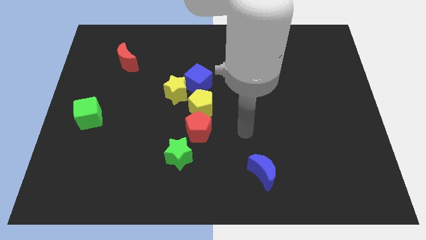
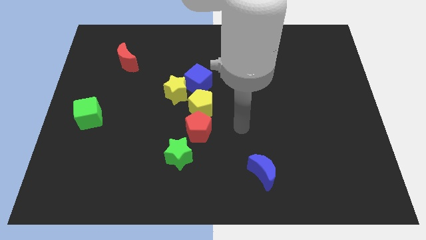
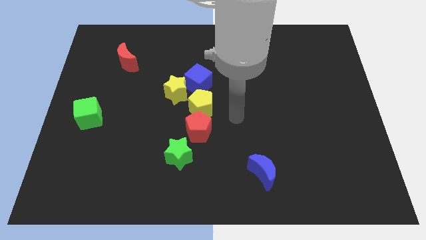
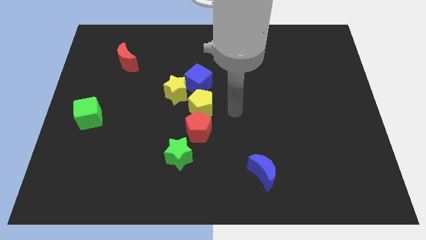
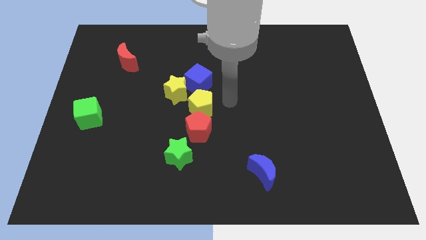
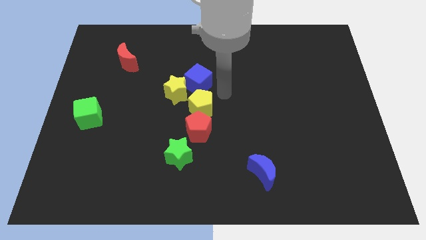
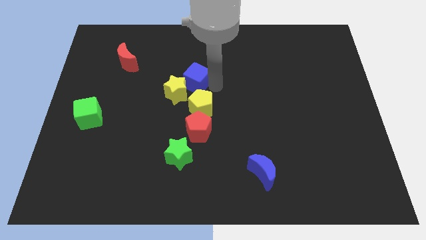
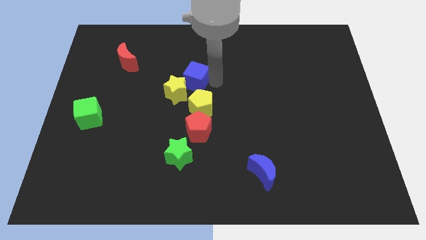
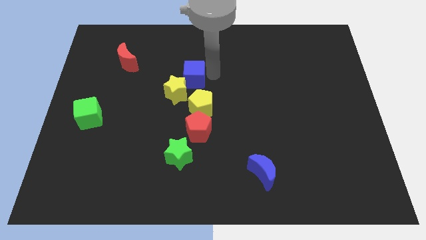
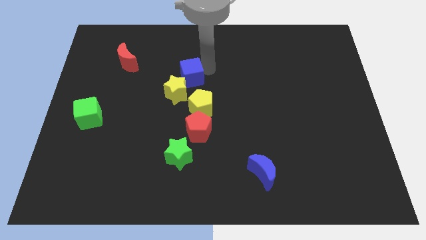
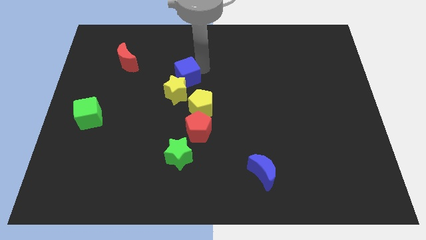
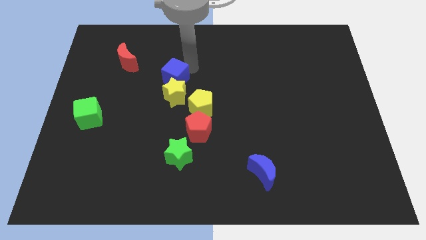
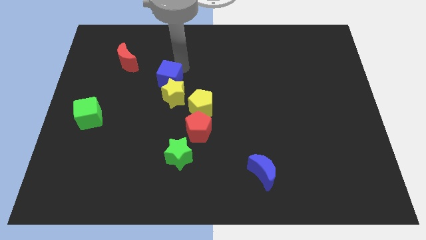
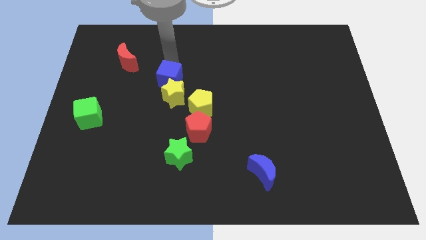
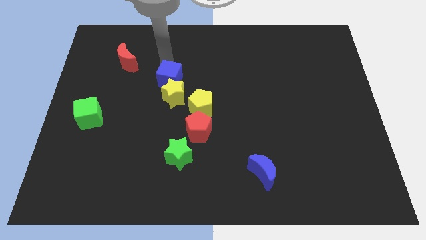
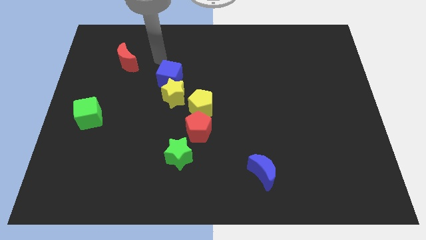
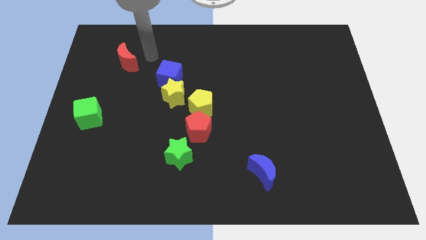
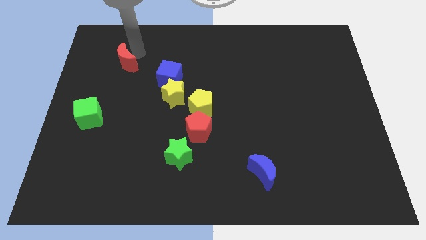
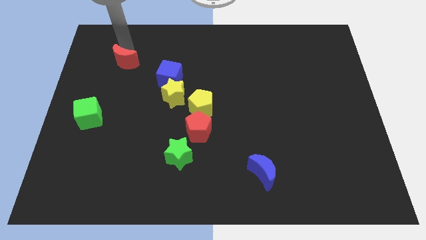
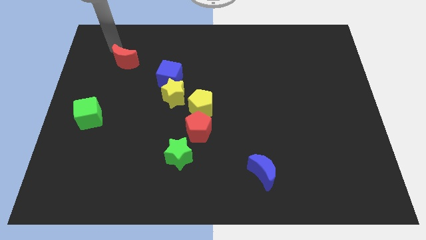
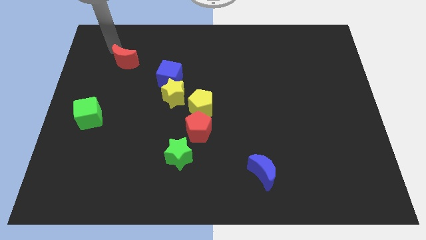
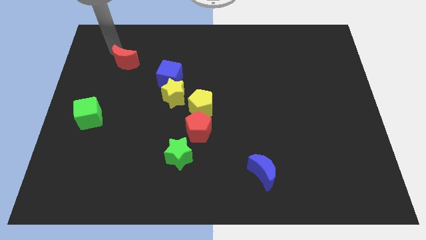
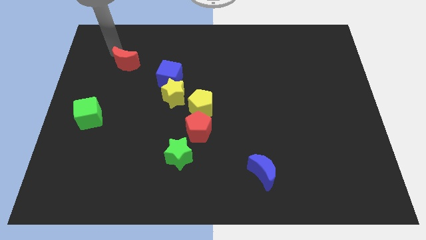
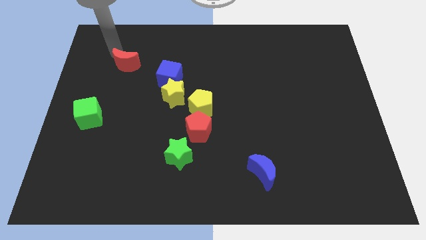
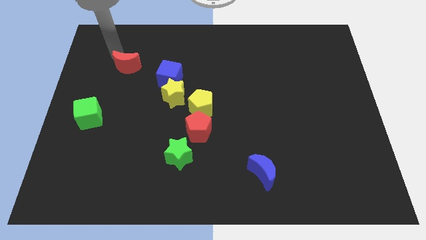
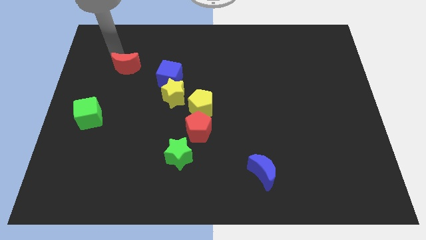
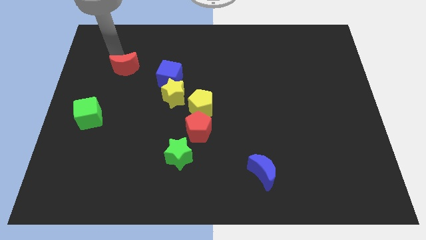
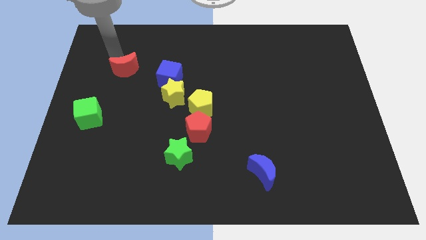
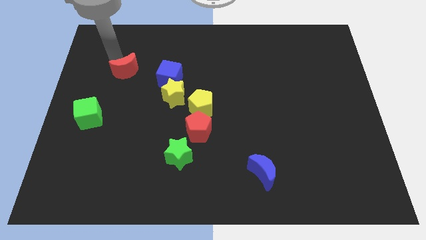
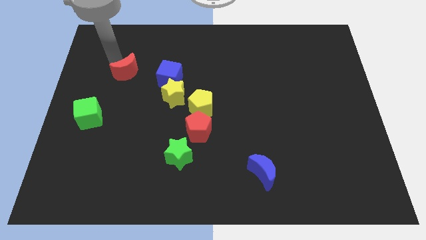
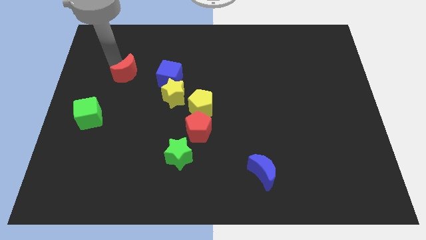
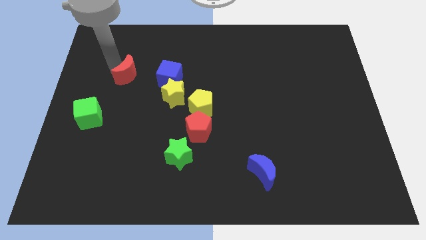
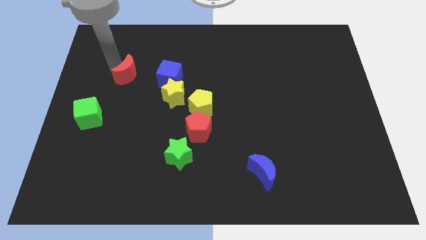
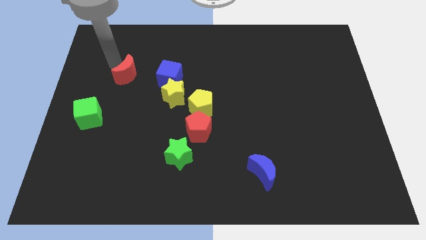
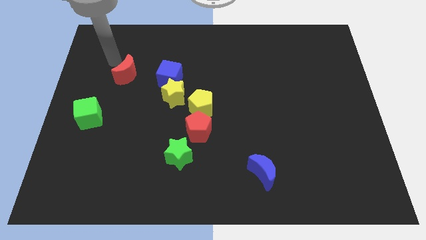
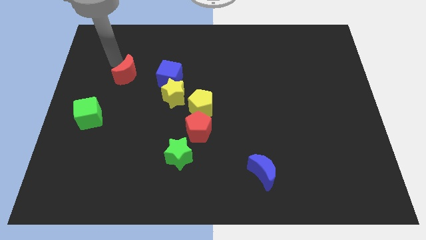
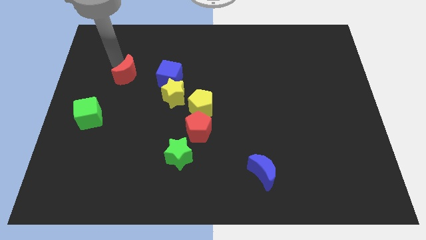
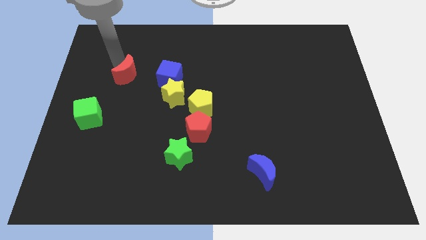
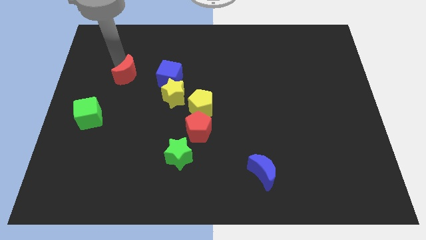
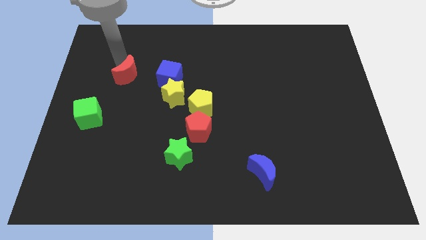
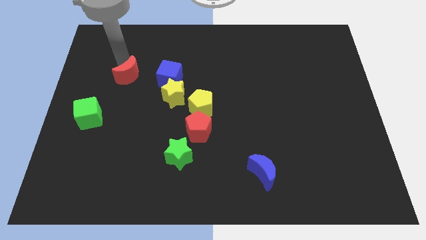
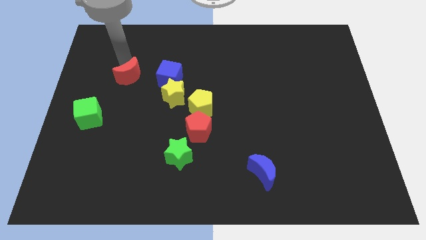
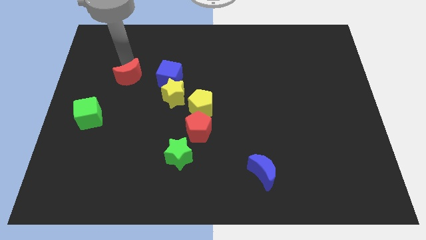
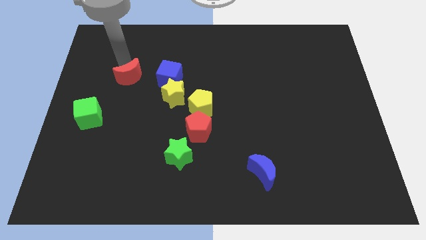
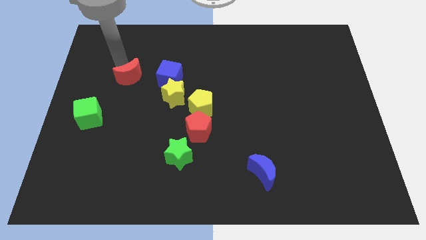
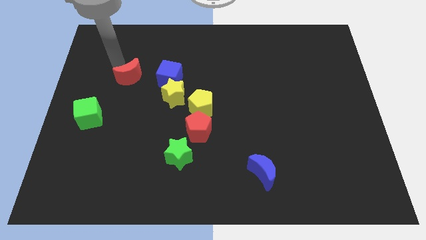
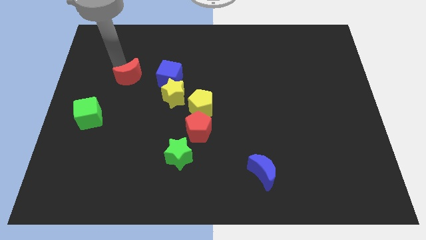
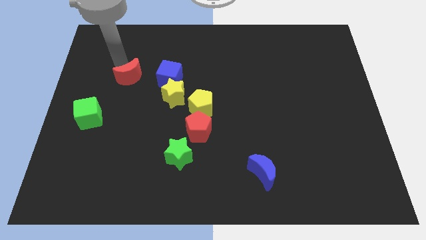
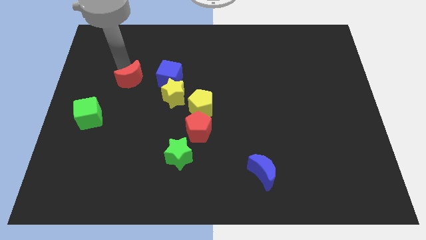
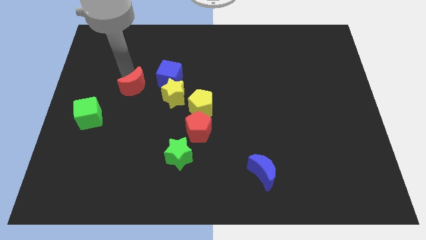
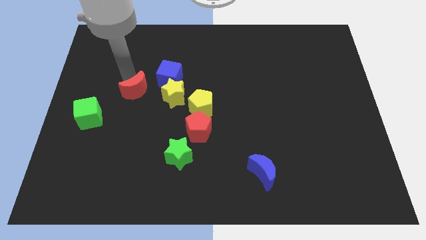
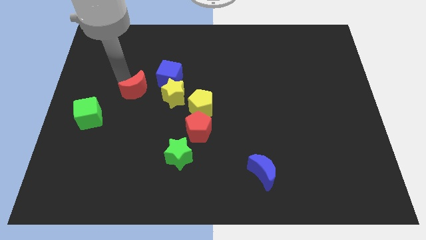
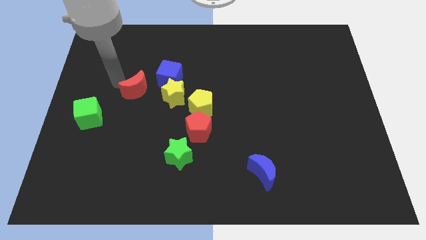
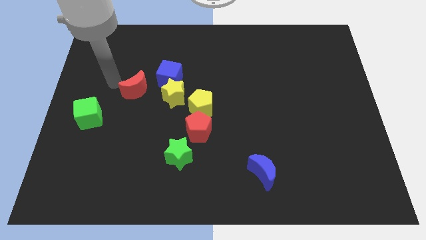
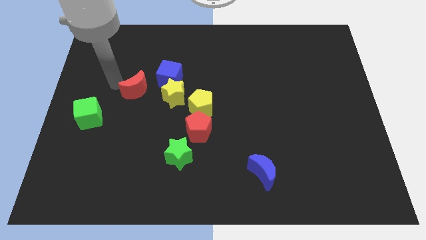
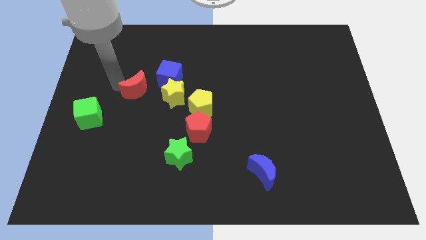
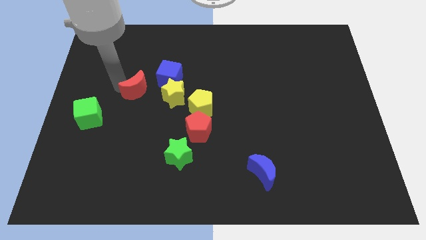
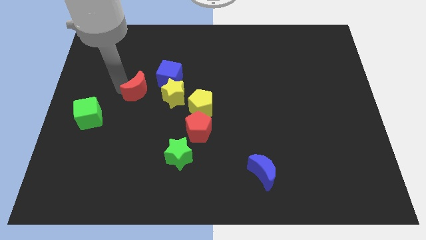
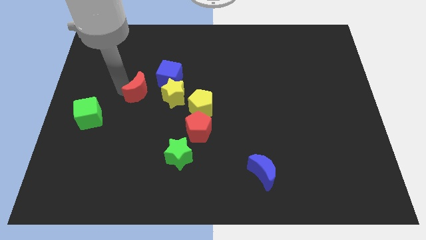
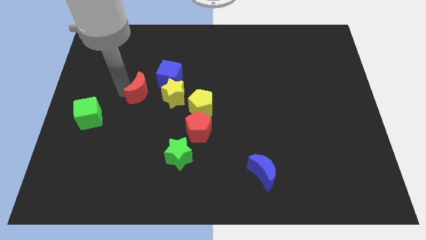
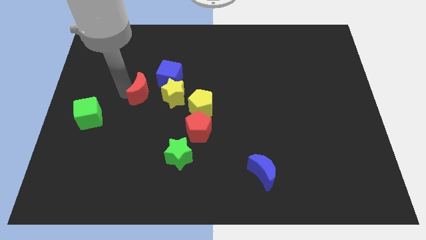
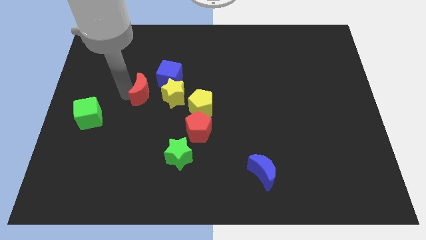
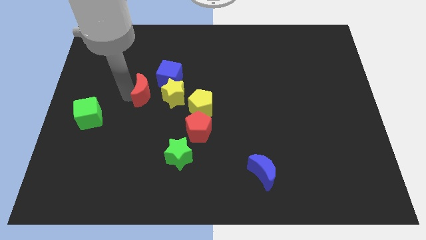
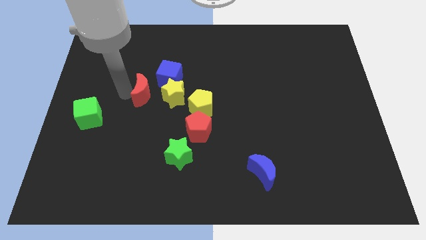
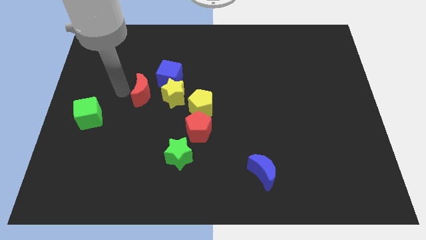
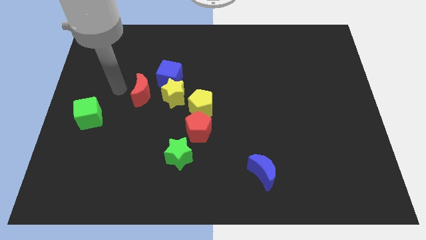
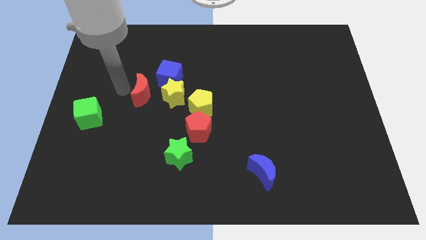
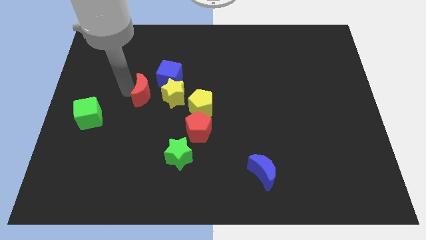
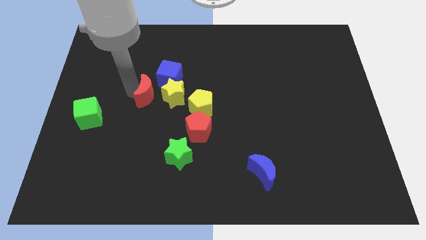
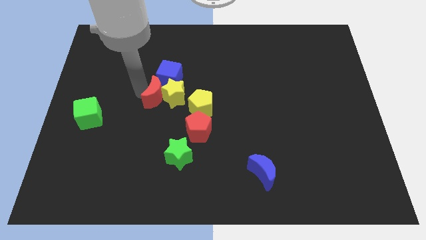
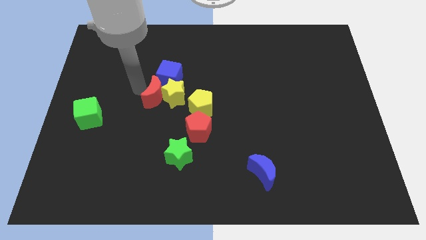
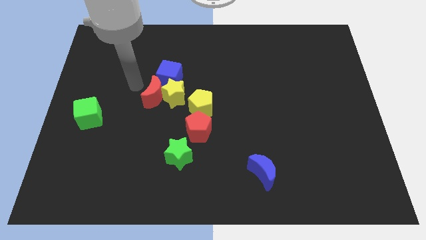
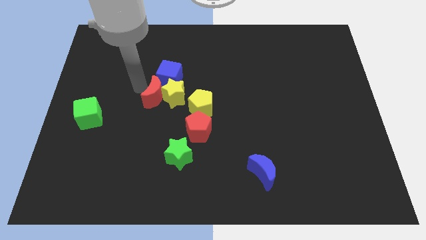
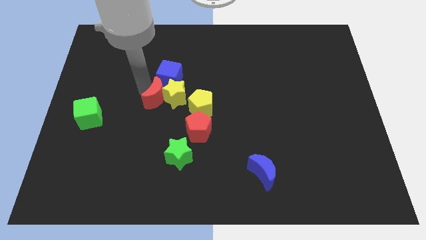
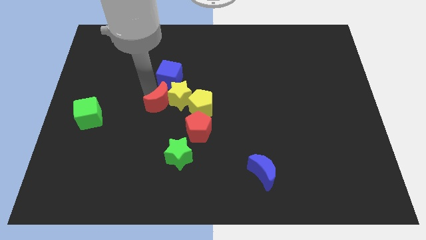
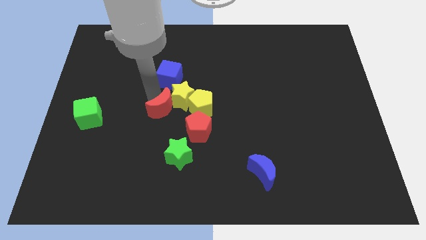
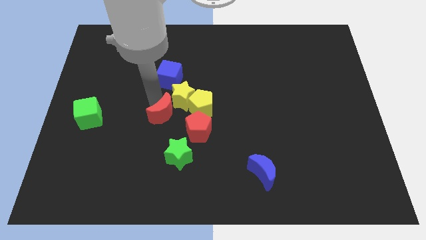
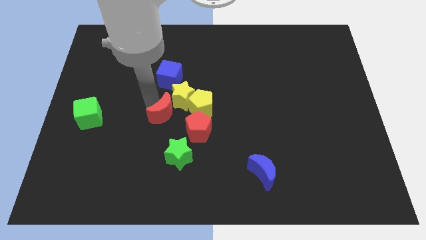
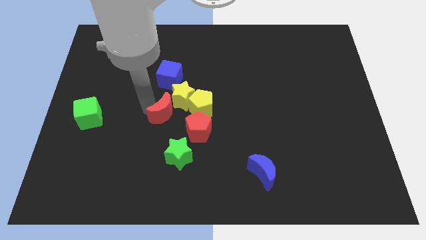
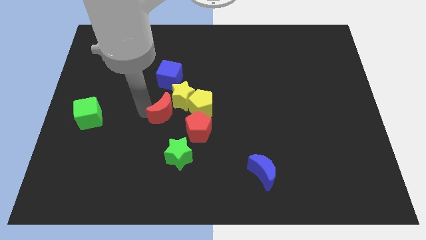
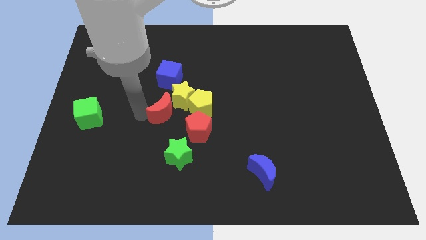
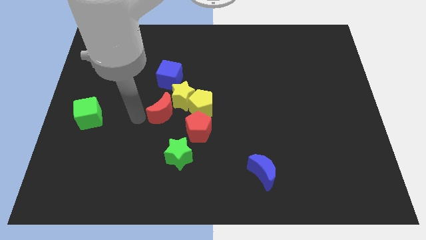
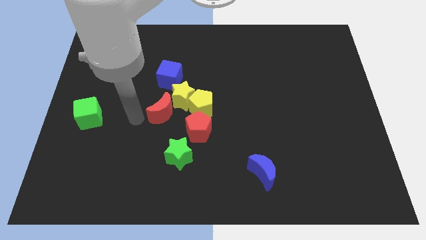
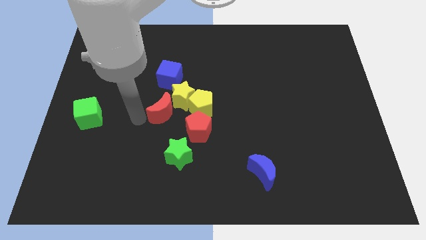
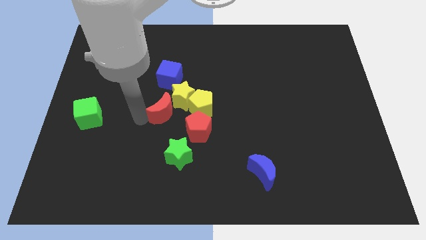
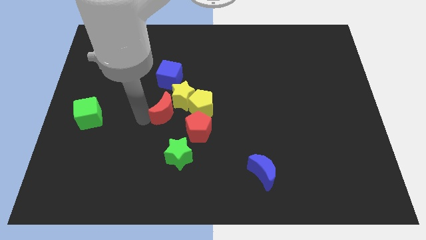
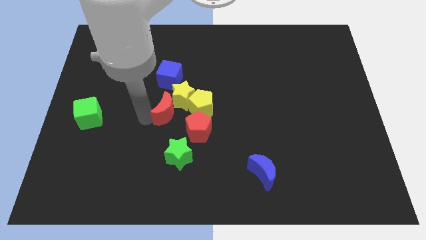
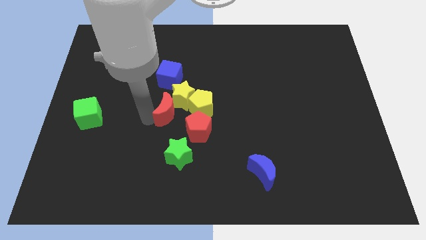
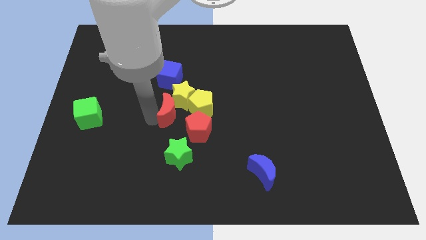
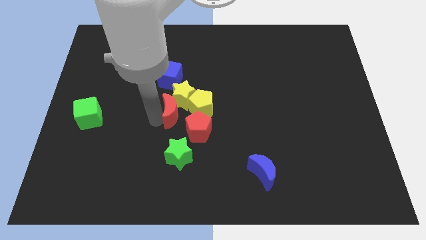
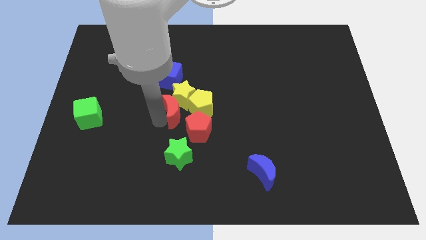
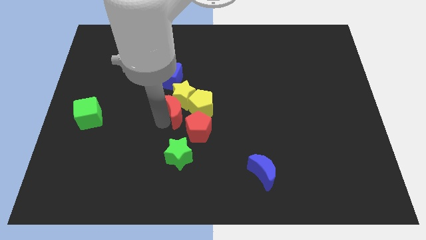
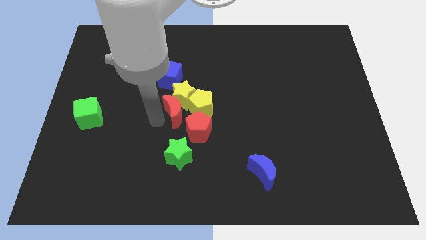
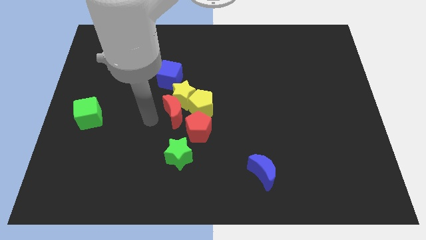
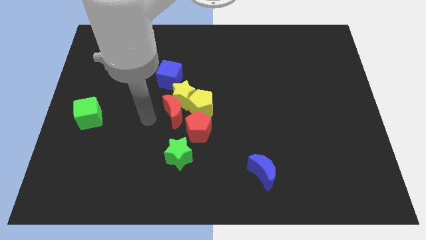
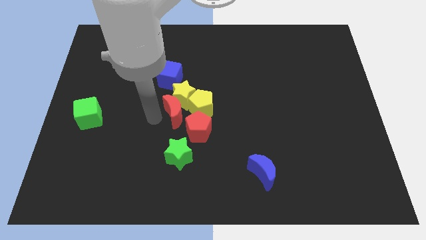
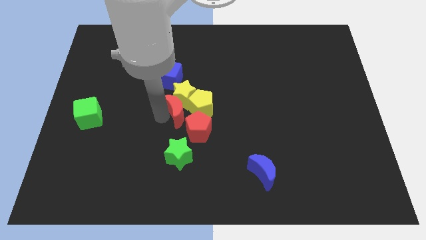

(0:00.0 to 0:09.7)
push the red moon towards the yellow pentagon
